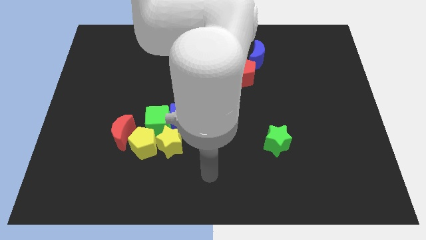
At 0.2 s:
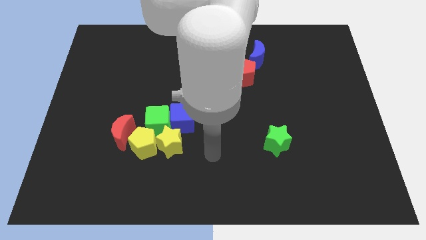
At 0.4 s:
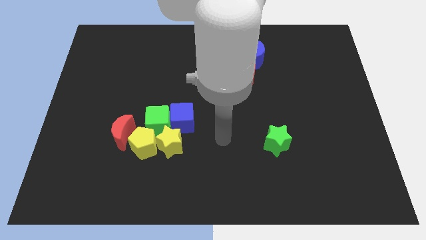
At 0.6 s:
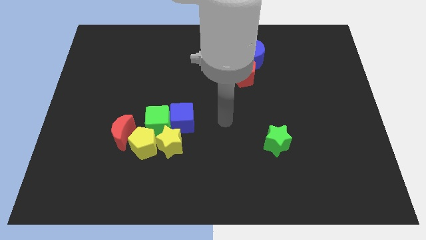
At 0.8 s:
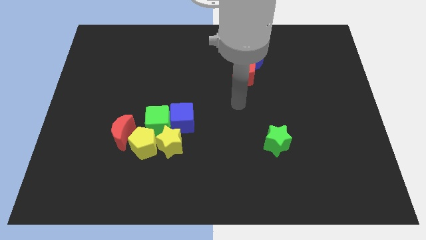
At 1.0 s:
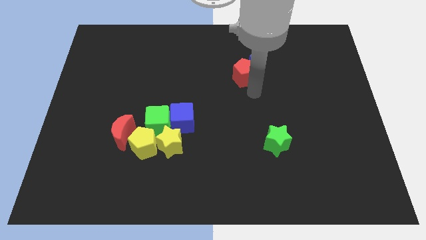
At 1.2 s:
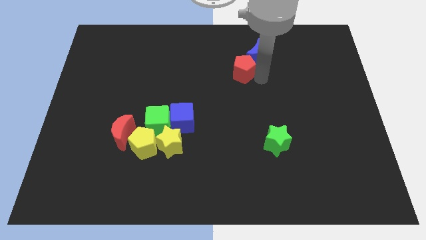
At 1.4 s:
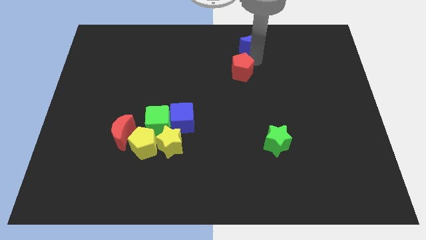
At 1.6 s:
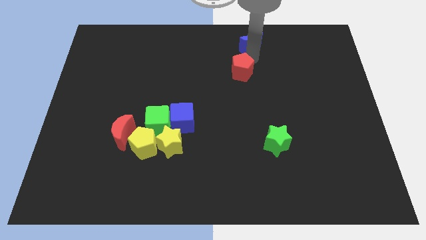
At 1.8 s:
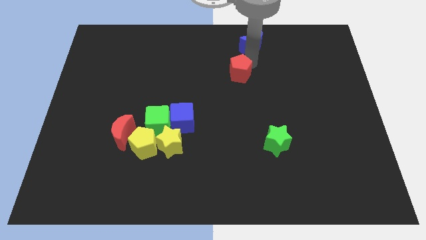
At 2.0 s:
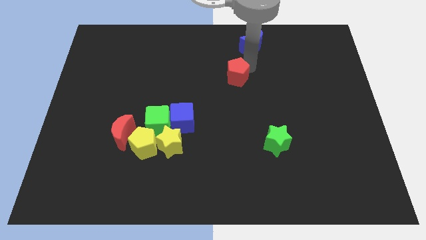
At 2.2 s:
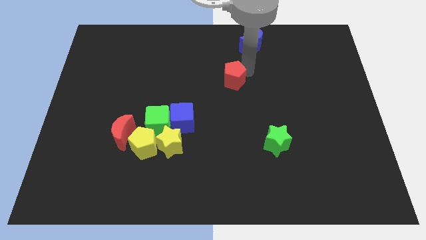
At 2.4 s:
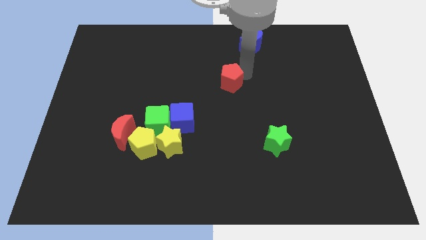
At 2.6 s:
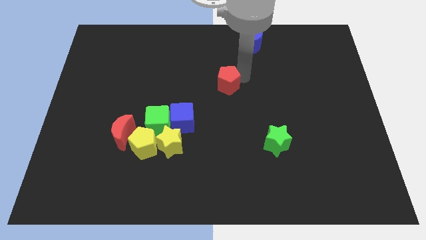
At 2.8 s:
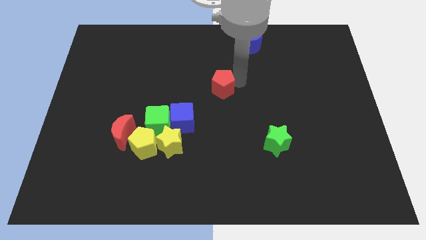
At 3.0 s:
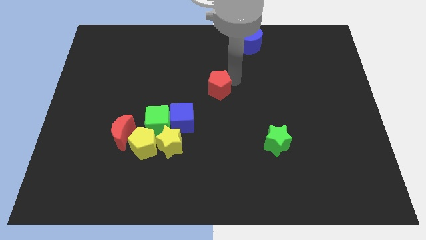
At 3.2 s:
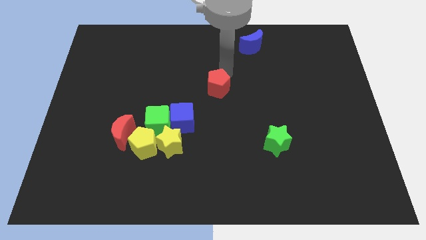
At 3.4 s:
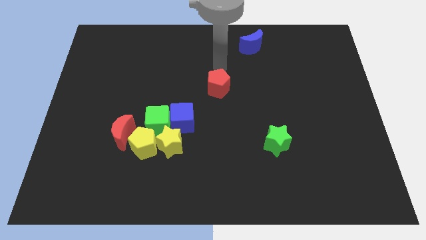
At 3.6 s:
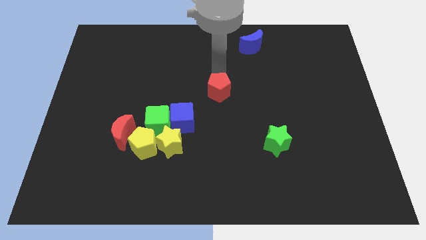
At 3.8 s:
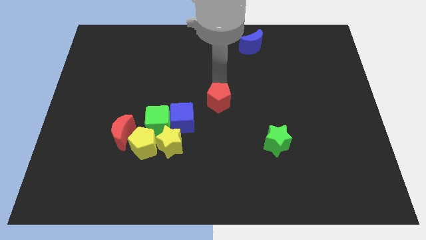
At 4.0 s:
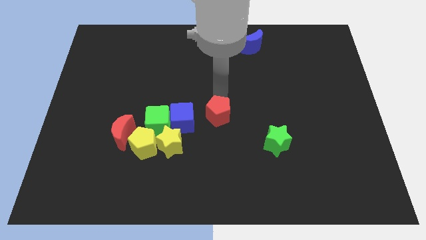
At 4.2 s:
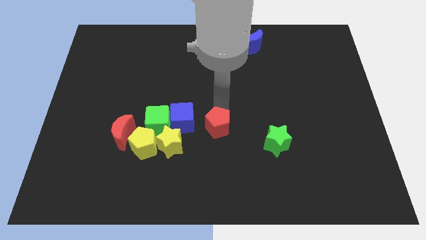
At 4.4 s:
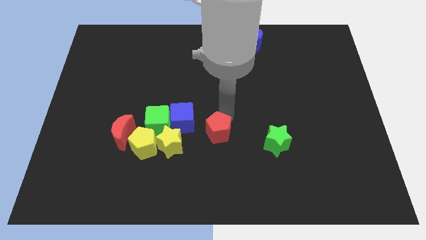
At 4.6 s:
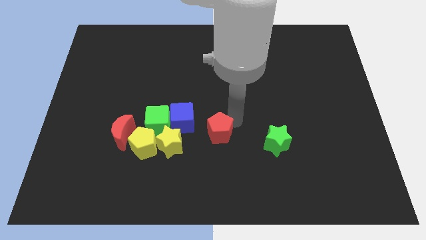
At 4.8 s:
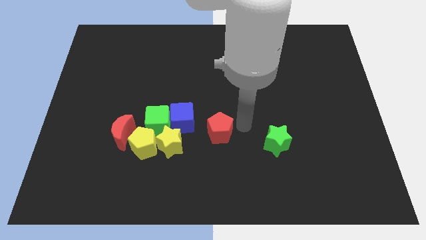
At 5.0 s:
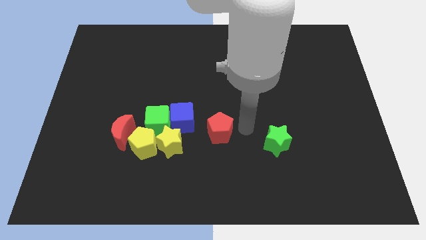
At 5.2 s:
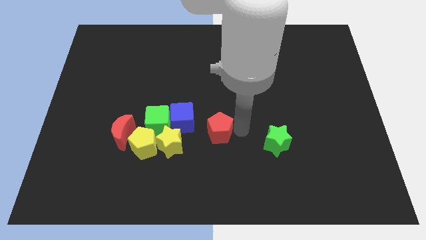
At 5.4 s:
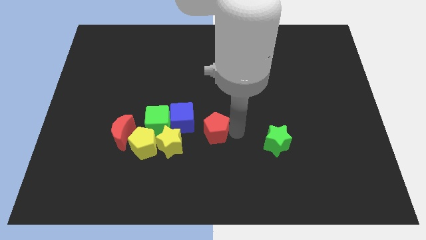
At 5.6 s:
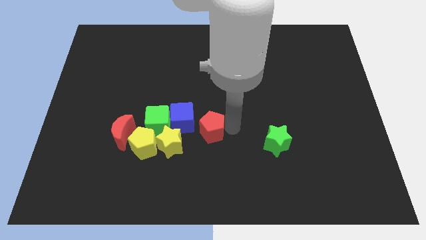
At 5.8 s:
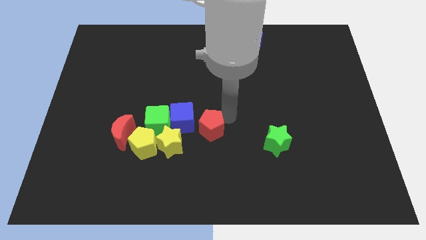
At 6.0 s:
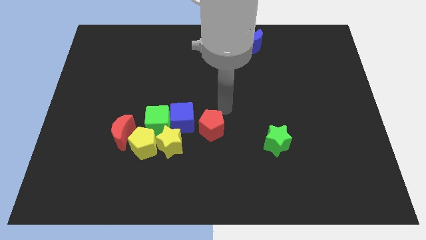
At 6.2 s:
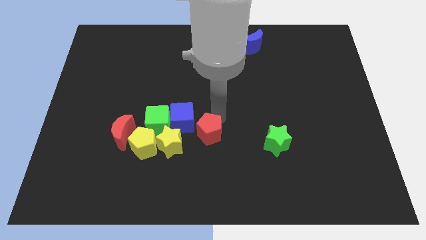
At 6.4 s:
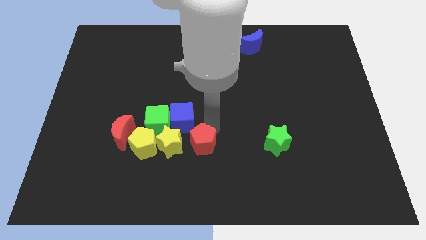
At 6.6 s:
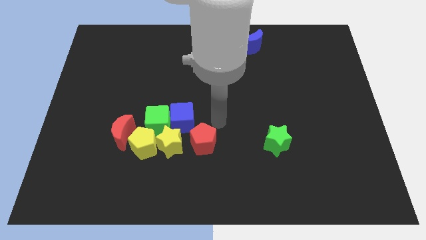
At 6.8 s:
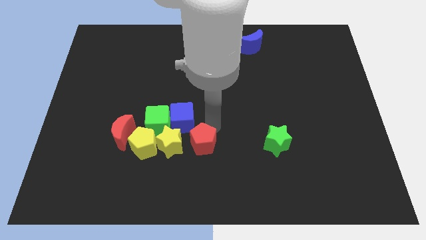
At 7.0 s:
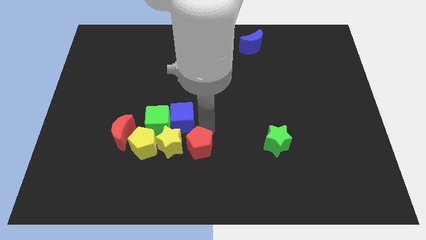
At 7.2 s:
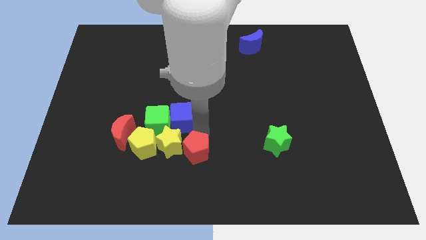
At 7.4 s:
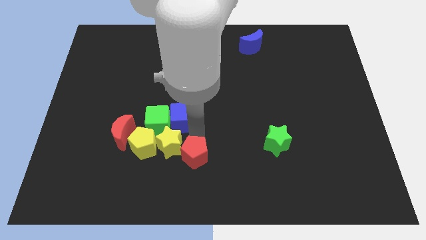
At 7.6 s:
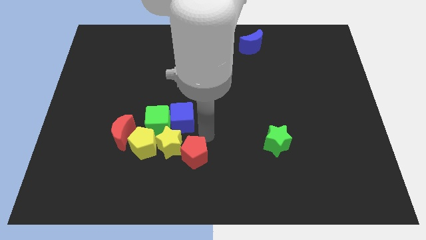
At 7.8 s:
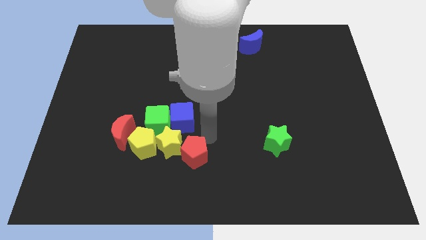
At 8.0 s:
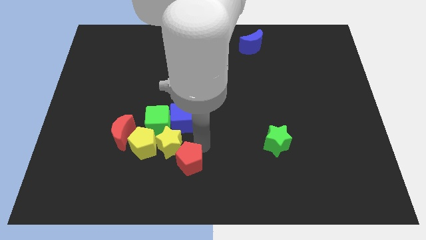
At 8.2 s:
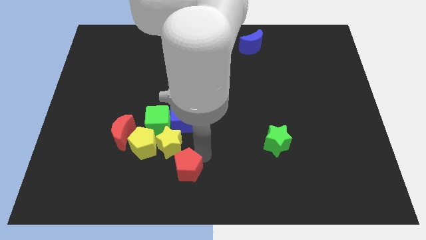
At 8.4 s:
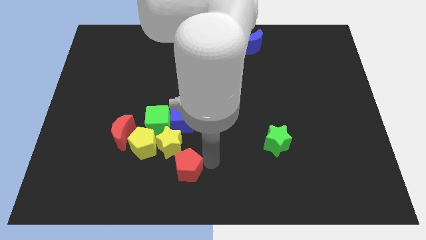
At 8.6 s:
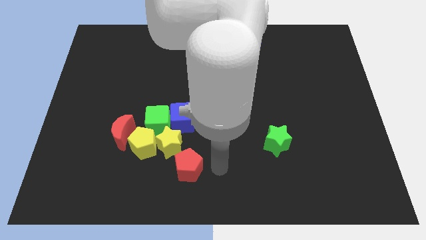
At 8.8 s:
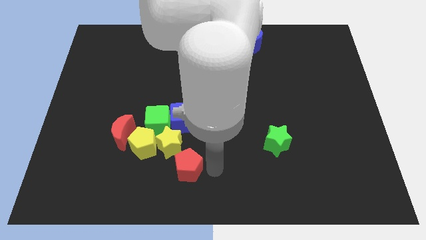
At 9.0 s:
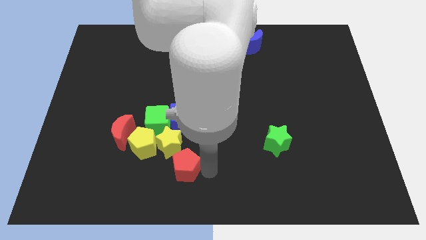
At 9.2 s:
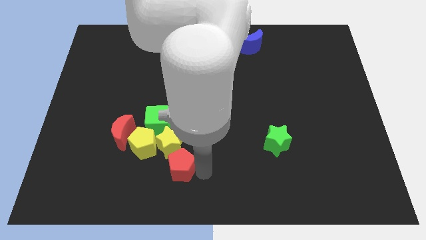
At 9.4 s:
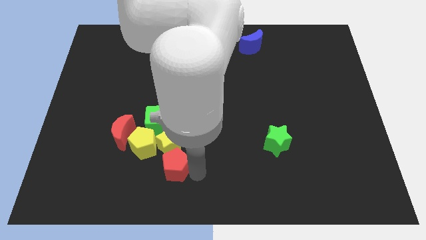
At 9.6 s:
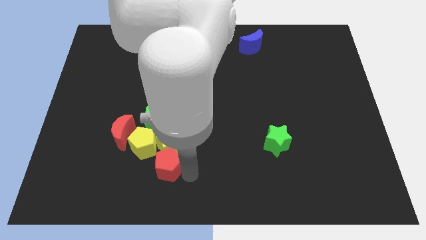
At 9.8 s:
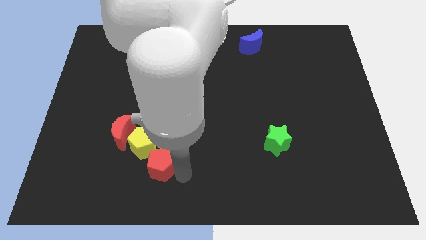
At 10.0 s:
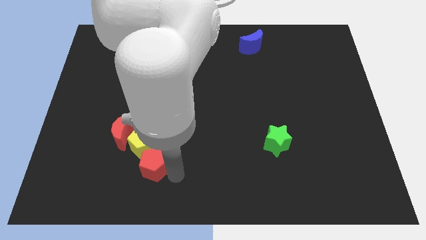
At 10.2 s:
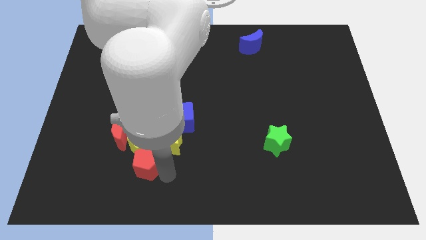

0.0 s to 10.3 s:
put the red pentagon to the bottom left of the yellow pentagon

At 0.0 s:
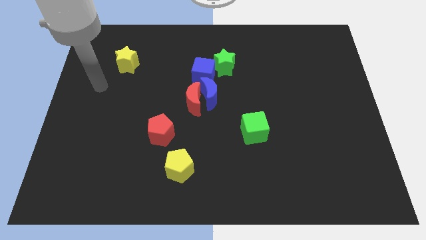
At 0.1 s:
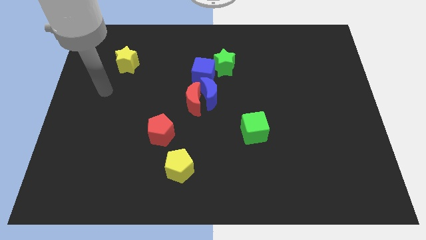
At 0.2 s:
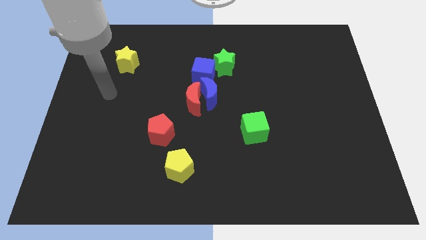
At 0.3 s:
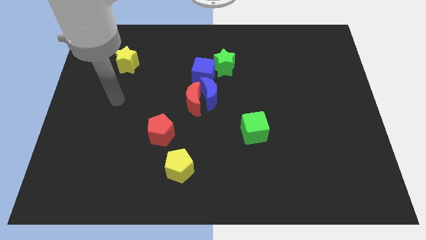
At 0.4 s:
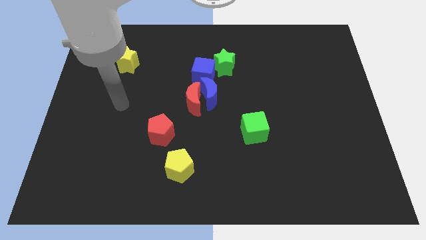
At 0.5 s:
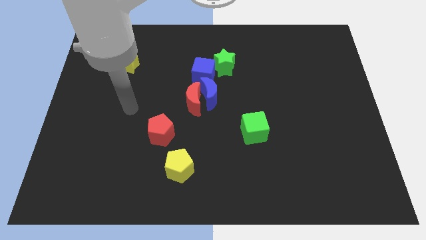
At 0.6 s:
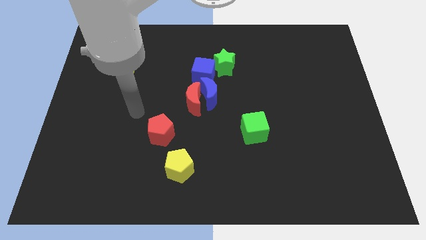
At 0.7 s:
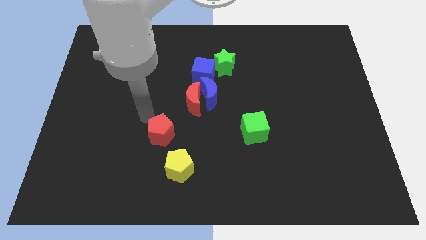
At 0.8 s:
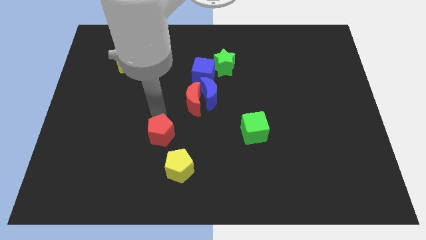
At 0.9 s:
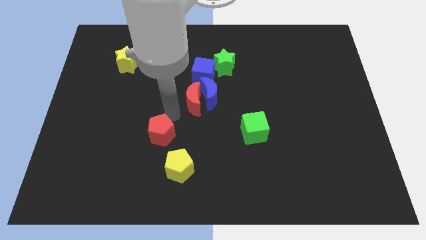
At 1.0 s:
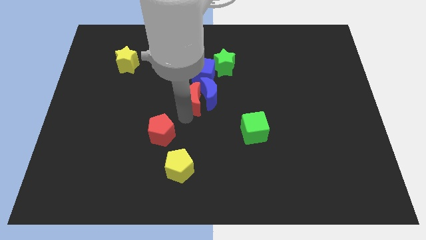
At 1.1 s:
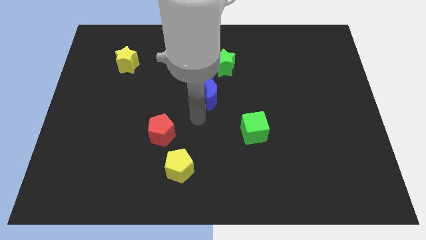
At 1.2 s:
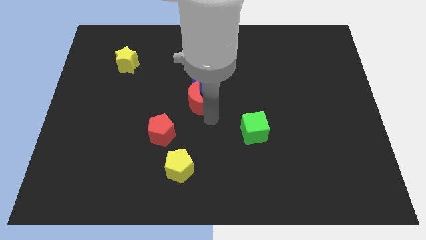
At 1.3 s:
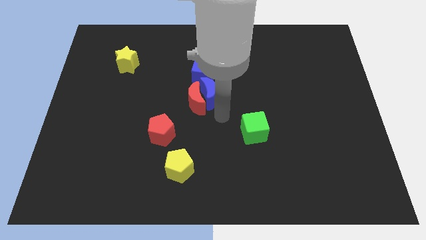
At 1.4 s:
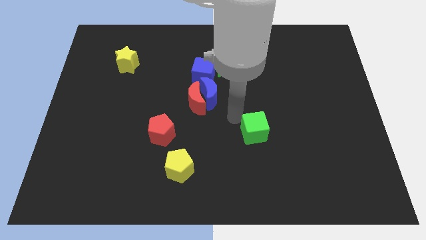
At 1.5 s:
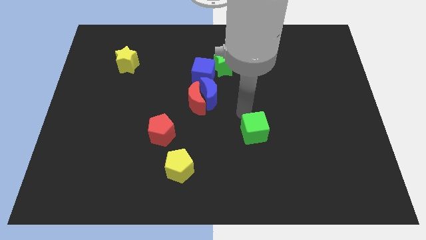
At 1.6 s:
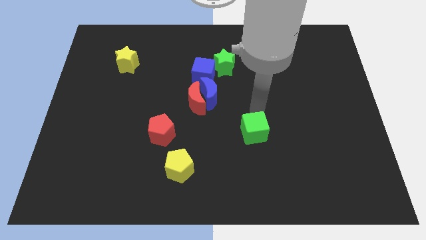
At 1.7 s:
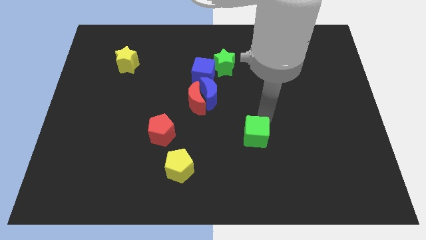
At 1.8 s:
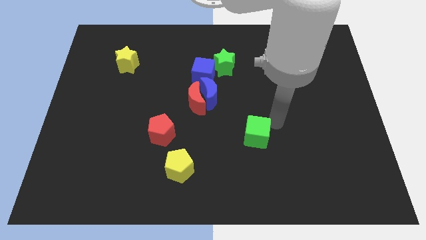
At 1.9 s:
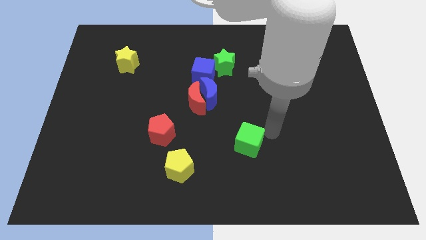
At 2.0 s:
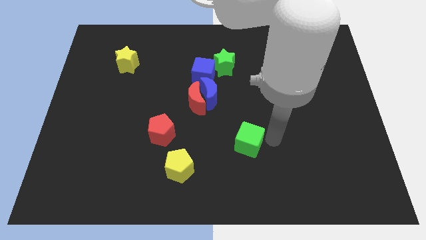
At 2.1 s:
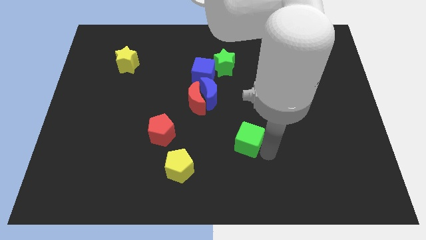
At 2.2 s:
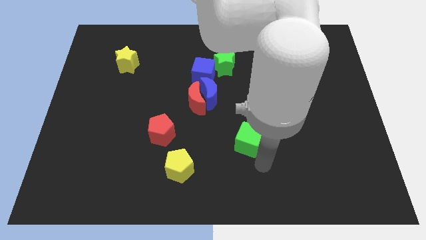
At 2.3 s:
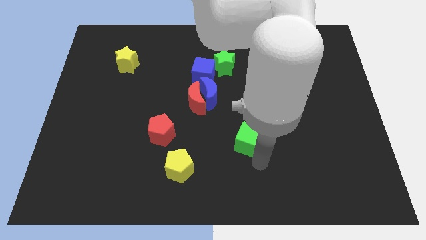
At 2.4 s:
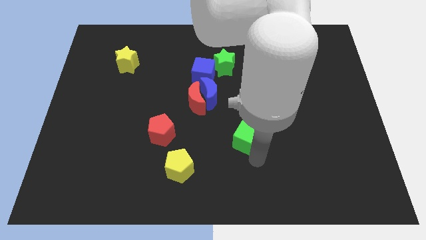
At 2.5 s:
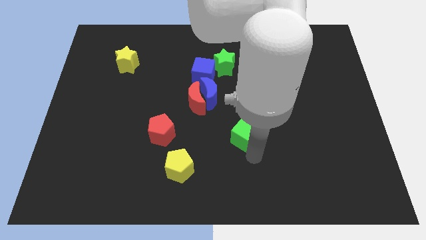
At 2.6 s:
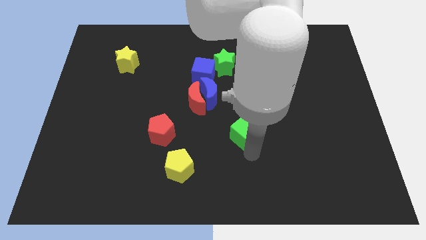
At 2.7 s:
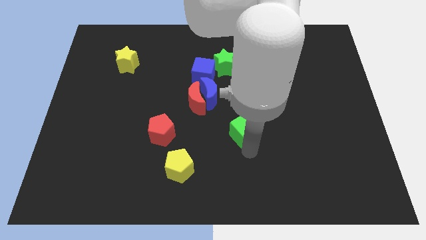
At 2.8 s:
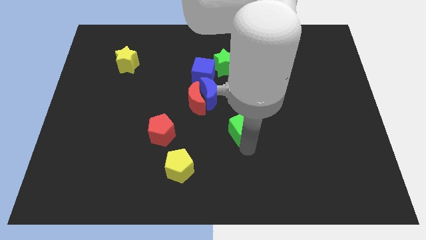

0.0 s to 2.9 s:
push the green cube to the bottom right side of the blue moon
